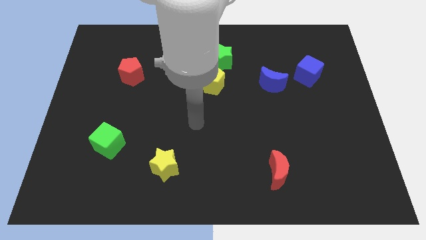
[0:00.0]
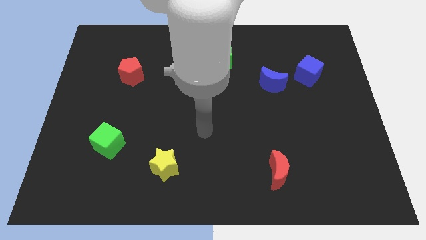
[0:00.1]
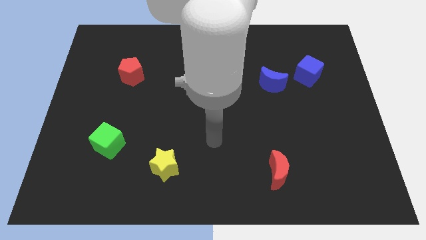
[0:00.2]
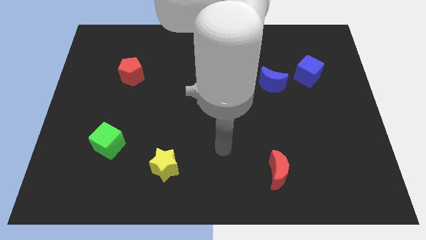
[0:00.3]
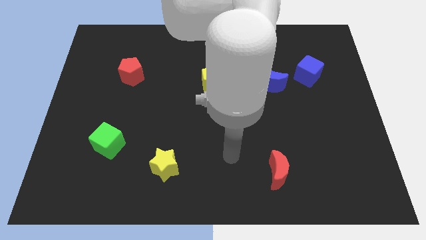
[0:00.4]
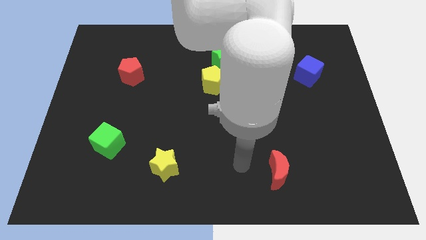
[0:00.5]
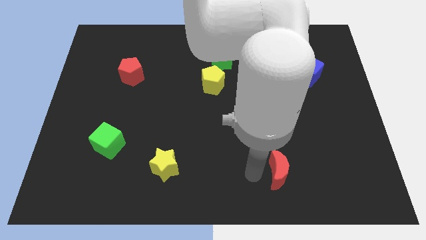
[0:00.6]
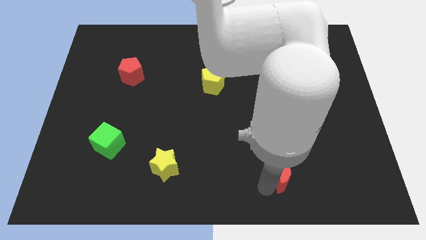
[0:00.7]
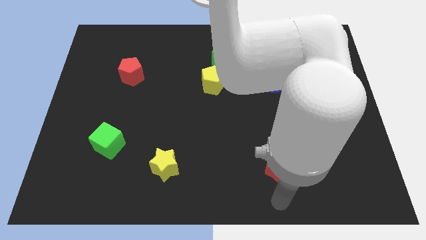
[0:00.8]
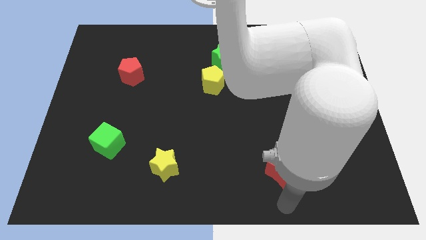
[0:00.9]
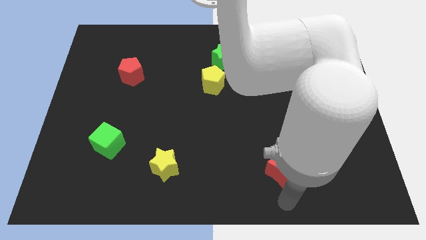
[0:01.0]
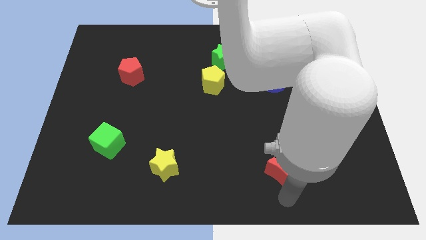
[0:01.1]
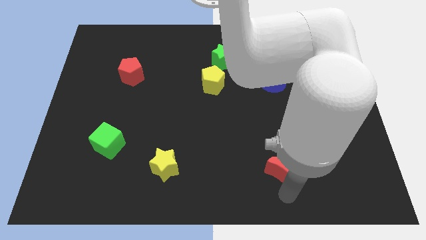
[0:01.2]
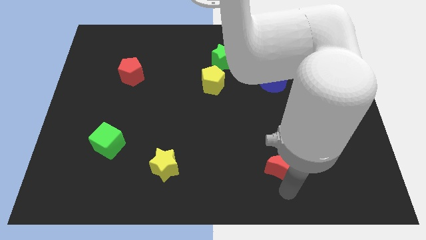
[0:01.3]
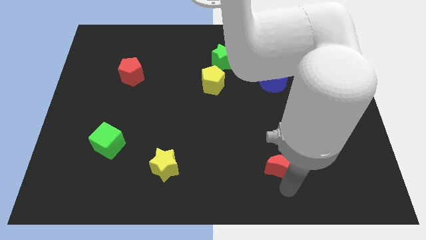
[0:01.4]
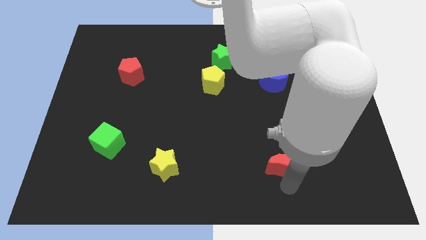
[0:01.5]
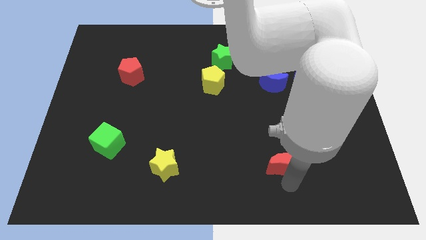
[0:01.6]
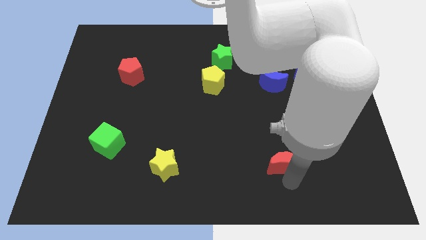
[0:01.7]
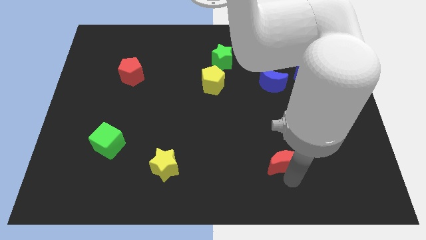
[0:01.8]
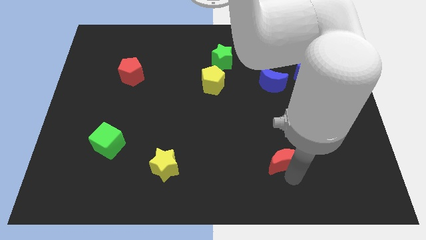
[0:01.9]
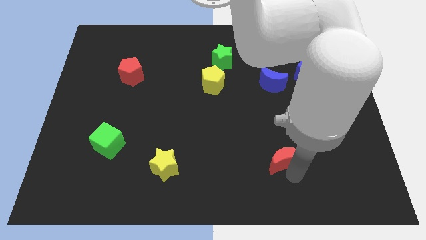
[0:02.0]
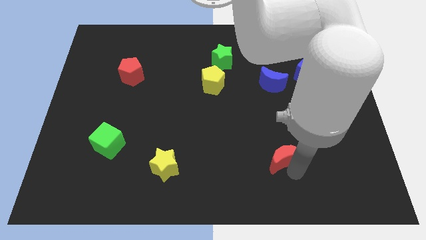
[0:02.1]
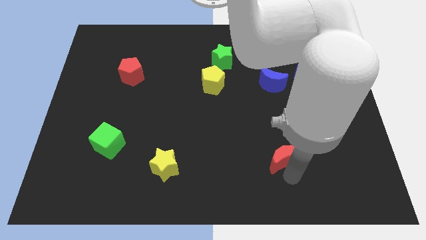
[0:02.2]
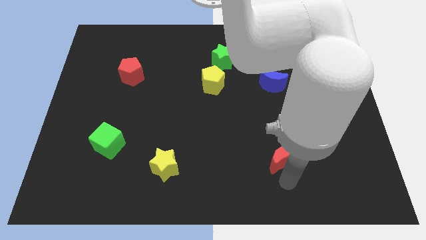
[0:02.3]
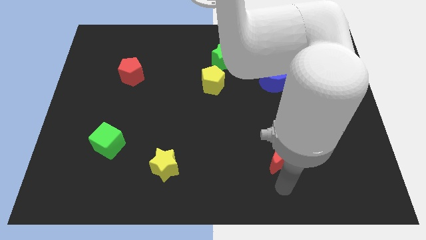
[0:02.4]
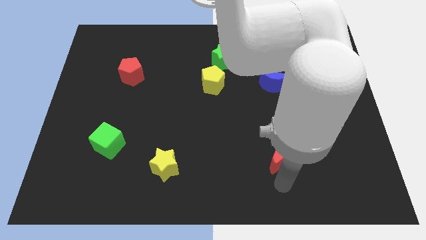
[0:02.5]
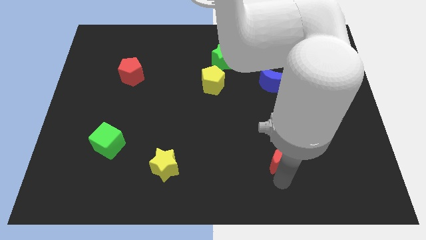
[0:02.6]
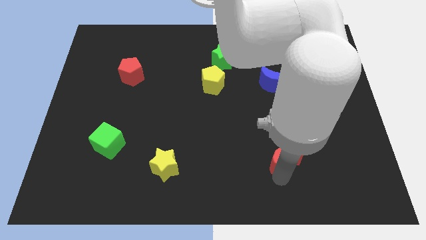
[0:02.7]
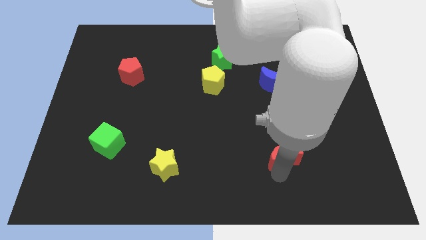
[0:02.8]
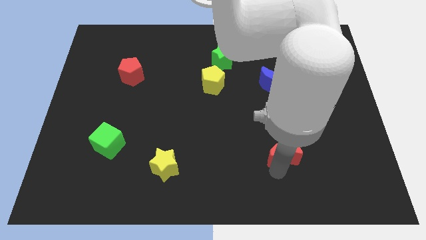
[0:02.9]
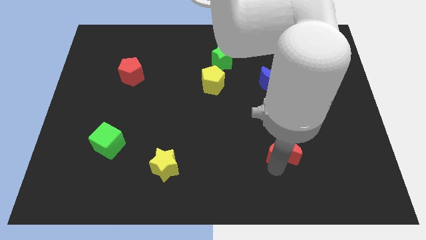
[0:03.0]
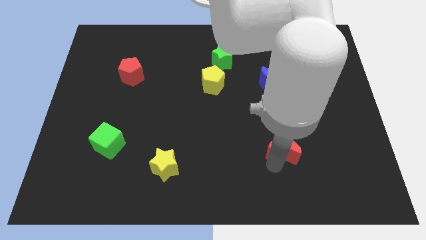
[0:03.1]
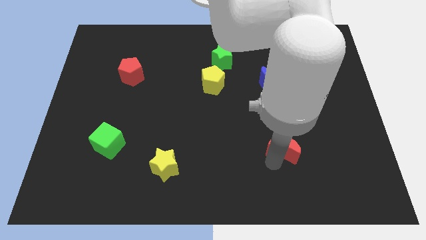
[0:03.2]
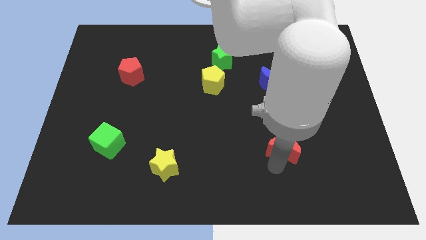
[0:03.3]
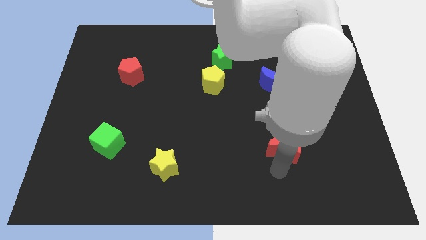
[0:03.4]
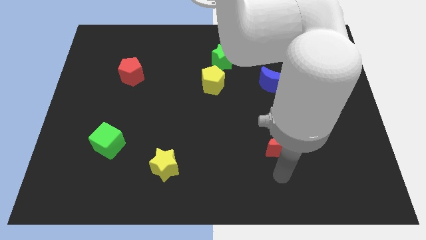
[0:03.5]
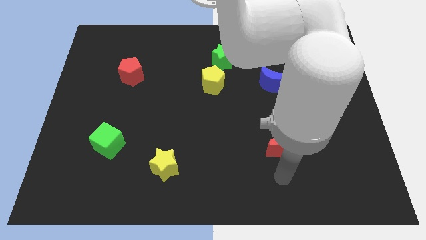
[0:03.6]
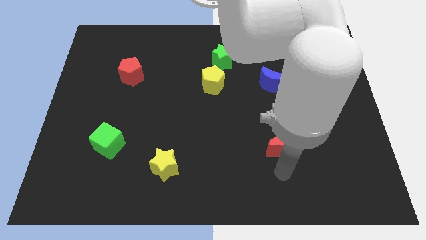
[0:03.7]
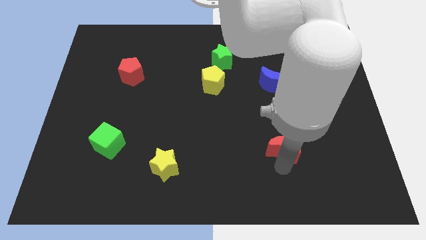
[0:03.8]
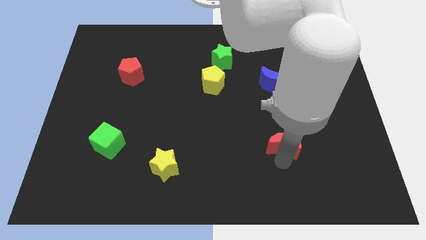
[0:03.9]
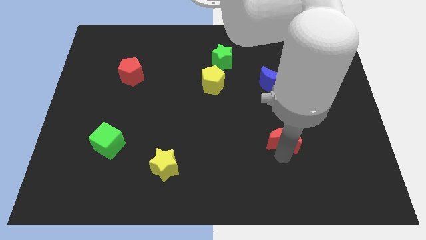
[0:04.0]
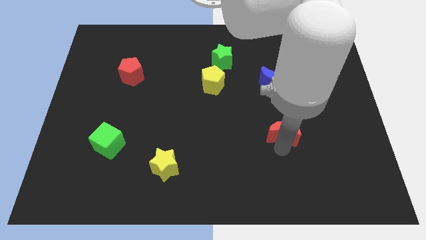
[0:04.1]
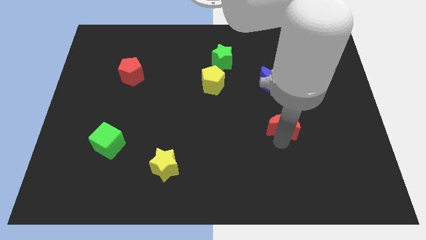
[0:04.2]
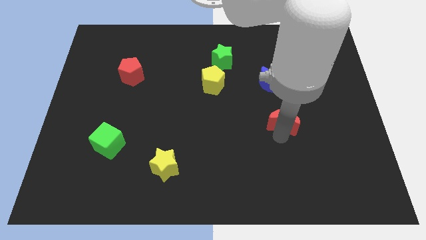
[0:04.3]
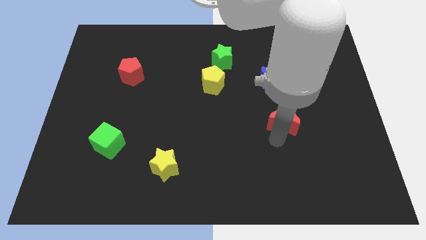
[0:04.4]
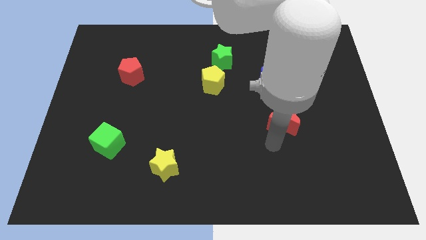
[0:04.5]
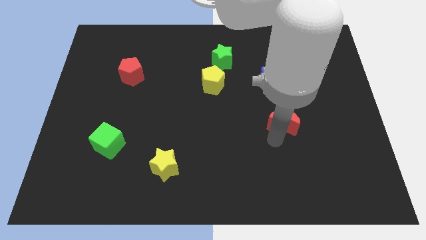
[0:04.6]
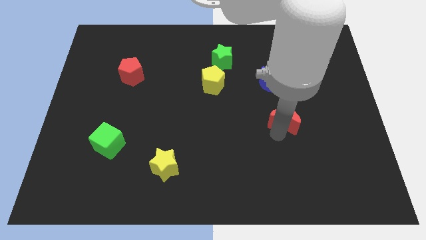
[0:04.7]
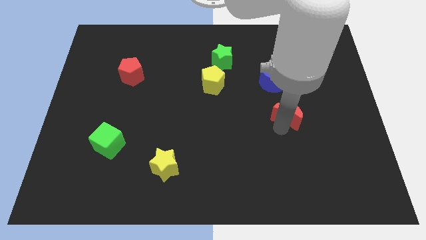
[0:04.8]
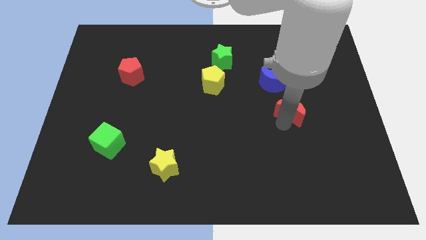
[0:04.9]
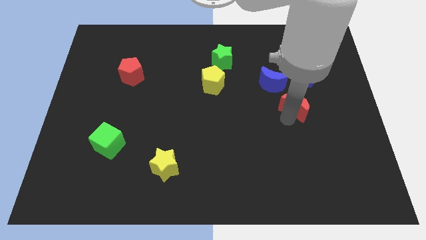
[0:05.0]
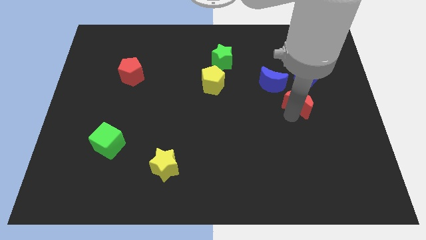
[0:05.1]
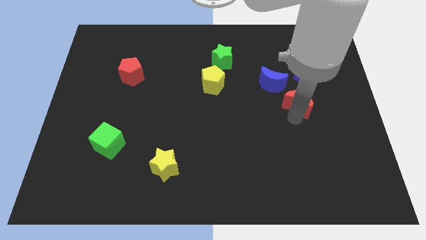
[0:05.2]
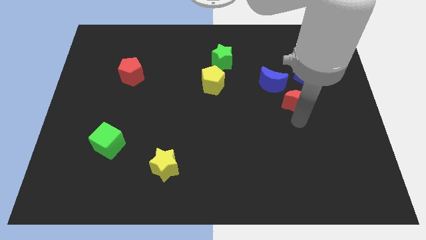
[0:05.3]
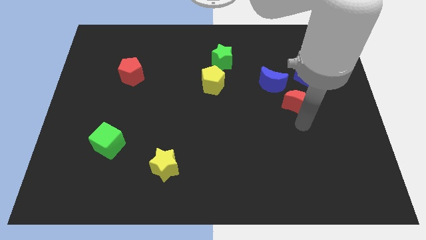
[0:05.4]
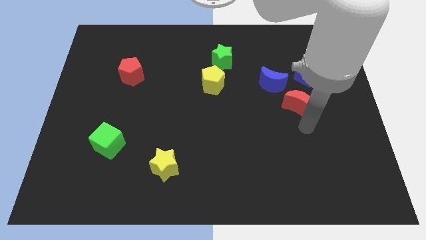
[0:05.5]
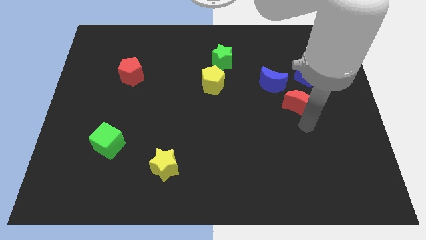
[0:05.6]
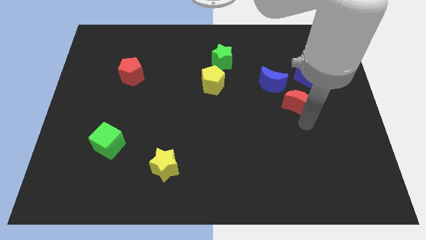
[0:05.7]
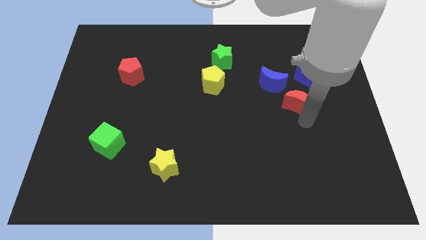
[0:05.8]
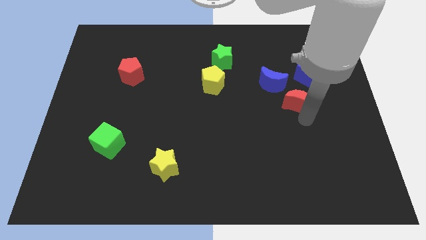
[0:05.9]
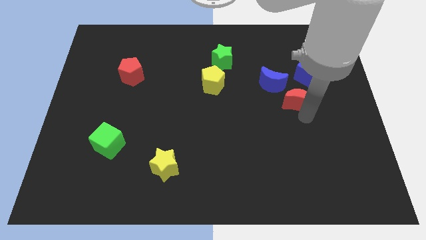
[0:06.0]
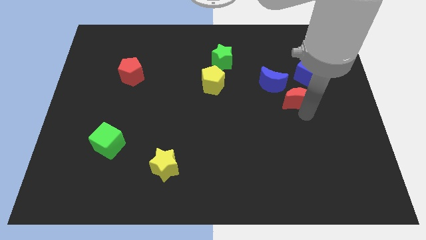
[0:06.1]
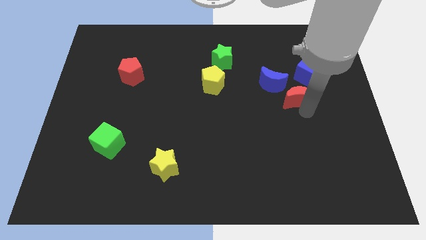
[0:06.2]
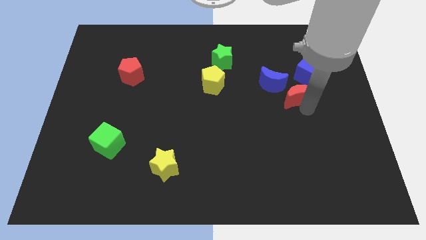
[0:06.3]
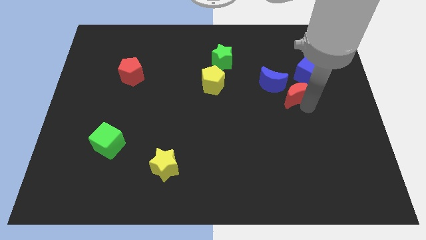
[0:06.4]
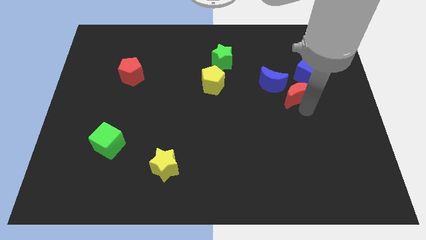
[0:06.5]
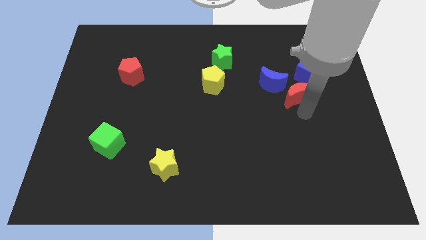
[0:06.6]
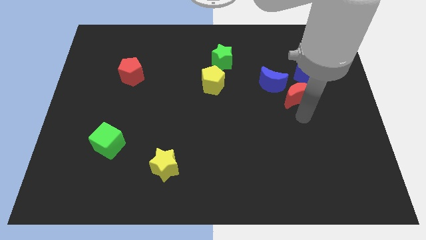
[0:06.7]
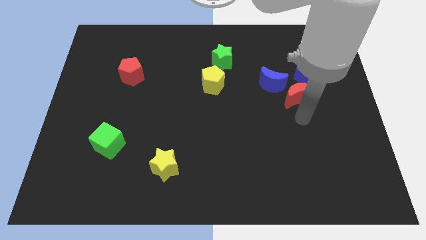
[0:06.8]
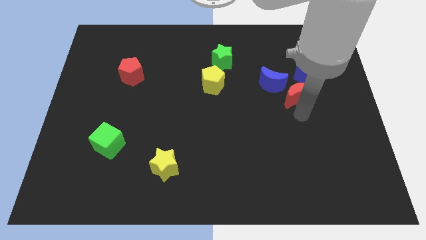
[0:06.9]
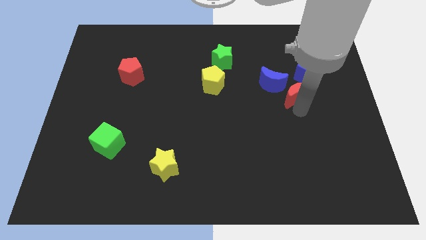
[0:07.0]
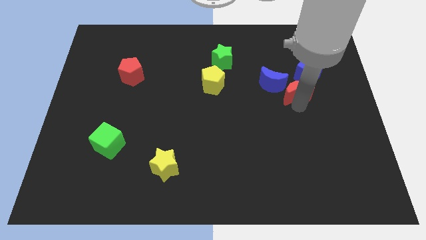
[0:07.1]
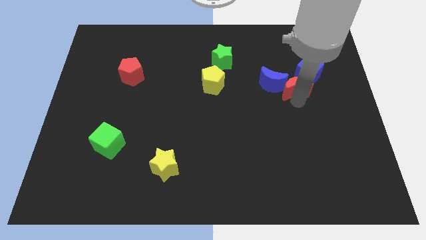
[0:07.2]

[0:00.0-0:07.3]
push the red moon up

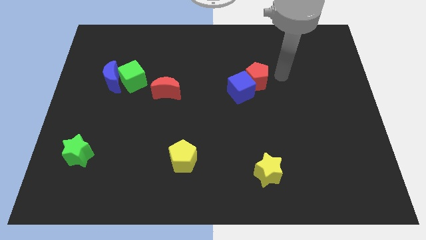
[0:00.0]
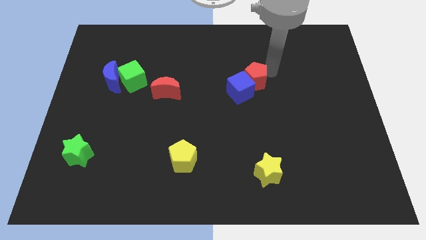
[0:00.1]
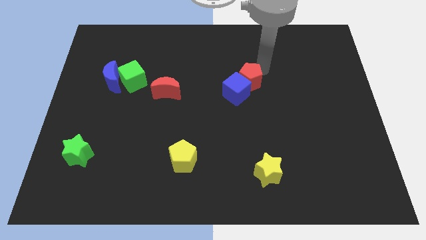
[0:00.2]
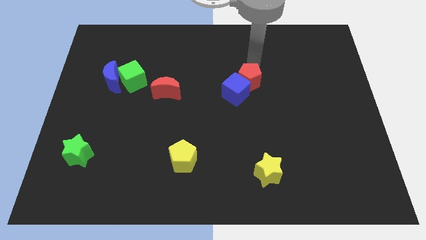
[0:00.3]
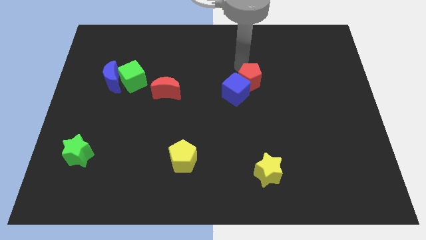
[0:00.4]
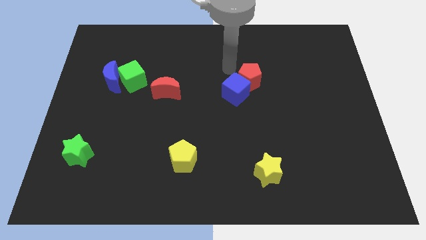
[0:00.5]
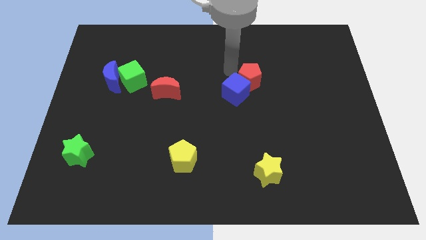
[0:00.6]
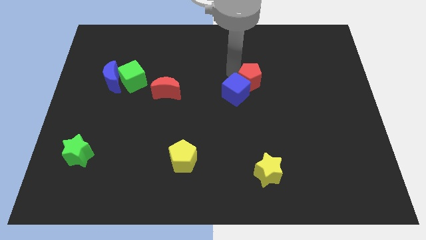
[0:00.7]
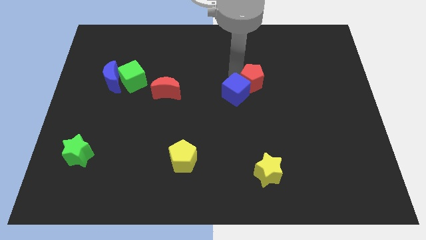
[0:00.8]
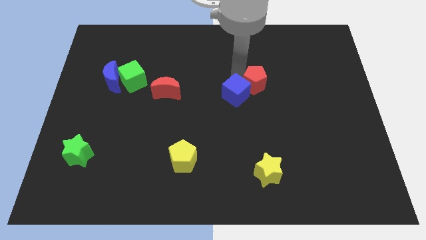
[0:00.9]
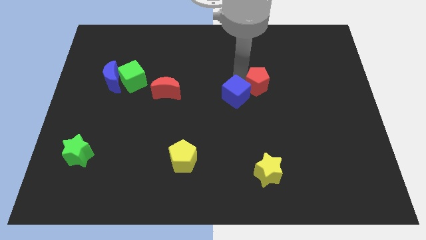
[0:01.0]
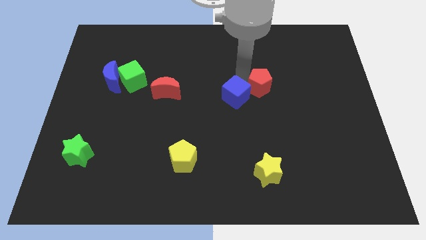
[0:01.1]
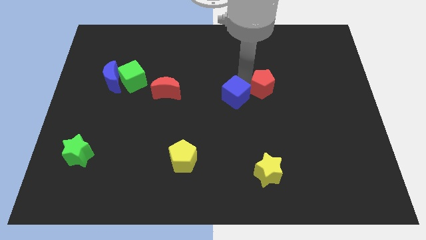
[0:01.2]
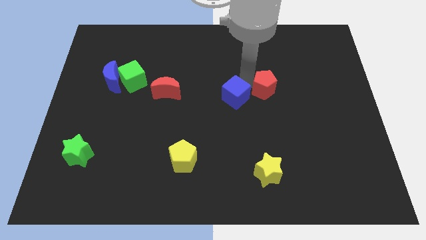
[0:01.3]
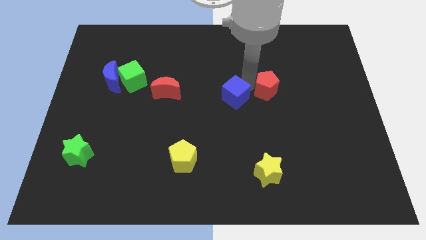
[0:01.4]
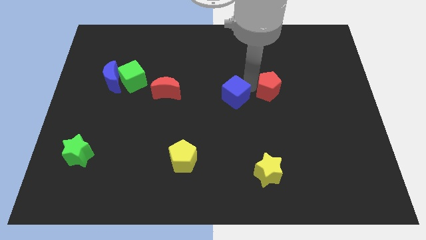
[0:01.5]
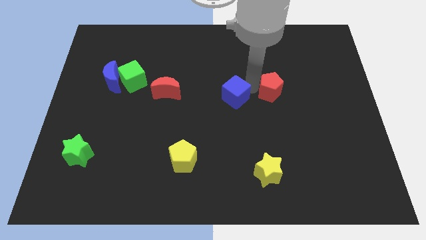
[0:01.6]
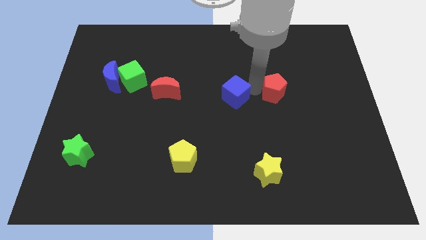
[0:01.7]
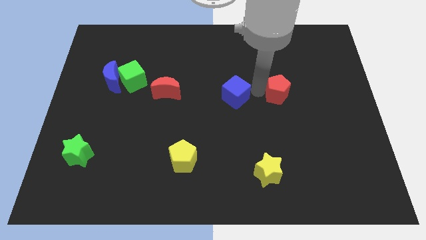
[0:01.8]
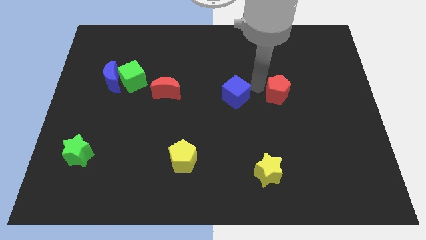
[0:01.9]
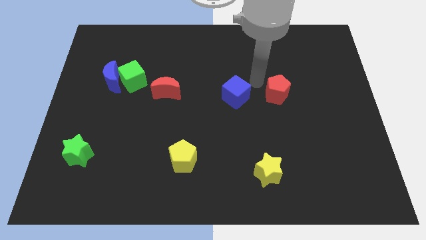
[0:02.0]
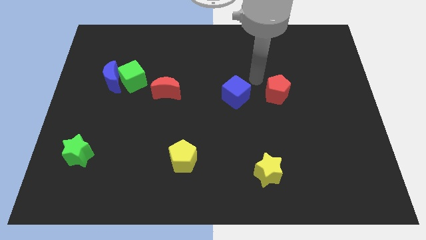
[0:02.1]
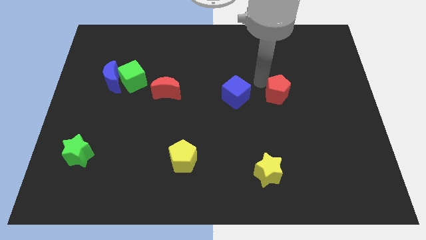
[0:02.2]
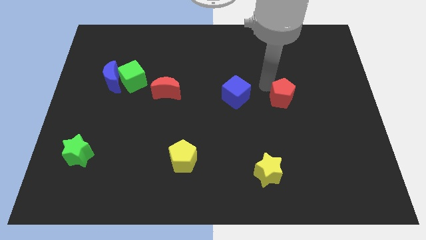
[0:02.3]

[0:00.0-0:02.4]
slide the red pentagon a little bit downwards and to the right
